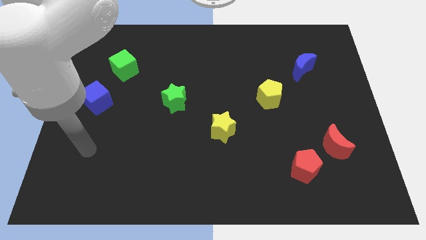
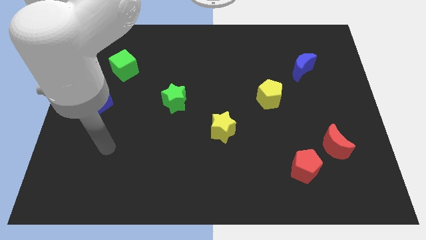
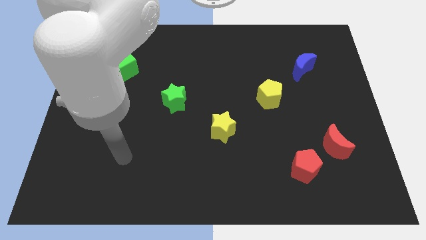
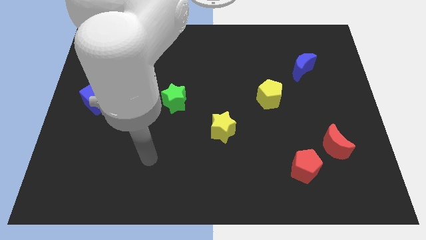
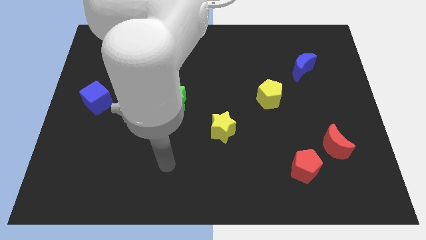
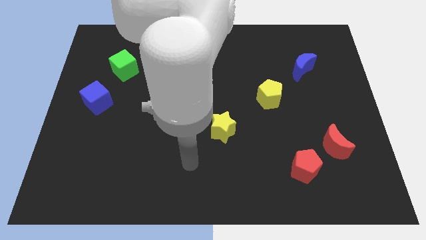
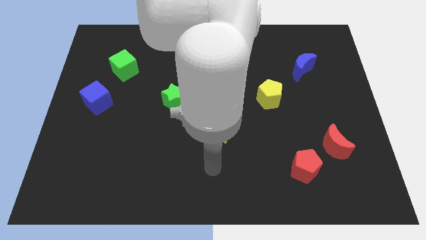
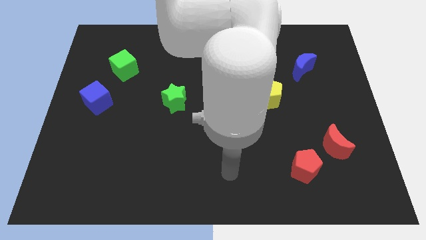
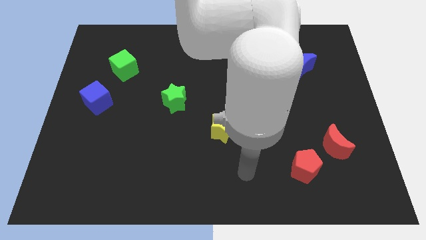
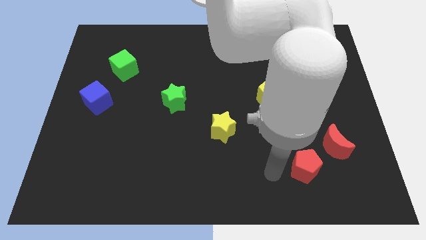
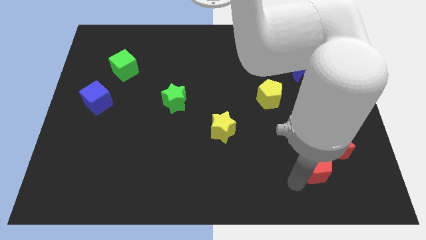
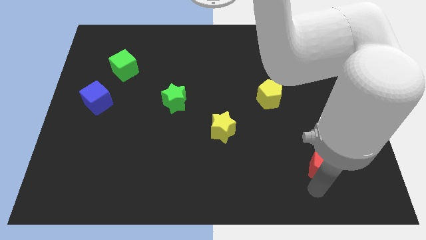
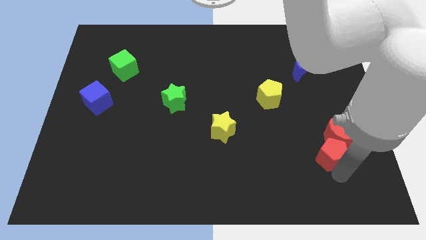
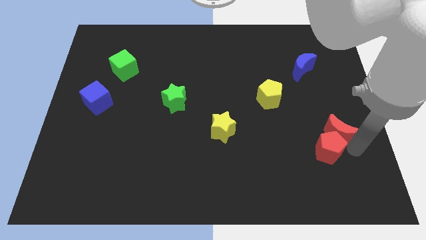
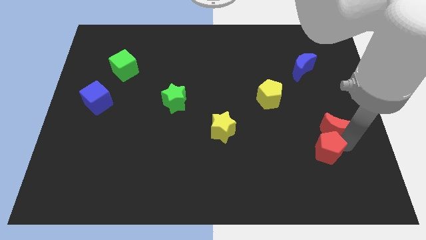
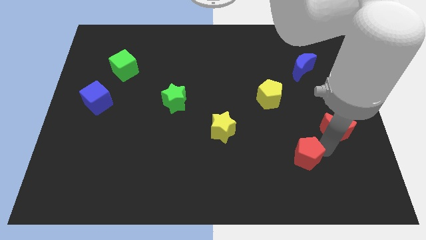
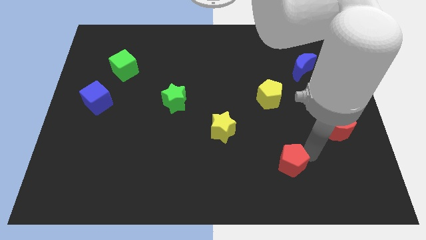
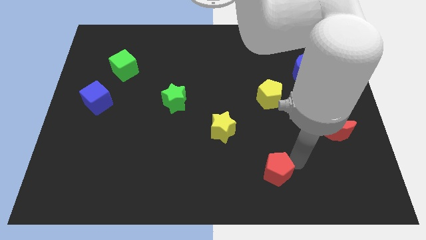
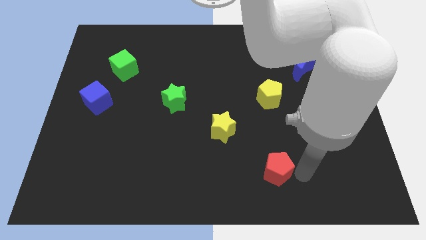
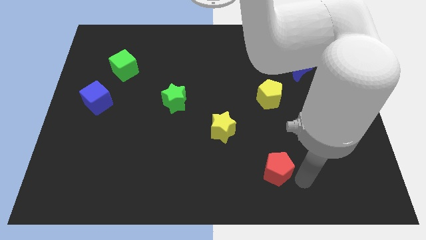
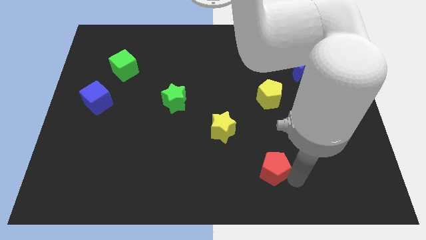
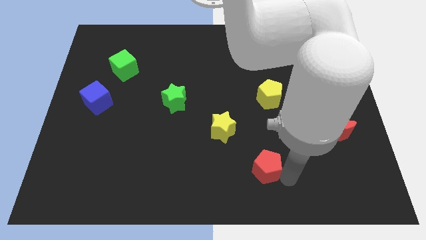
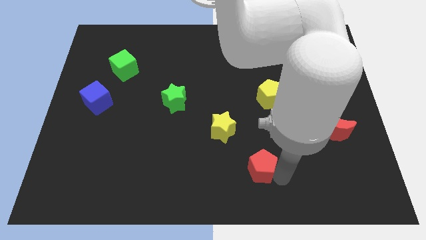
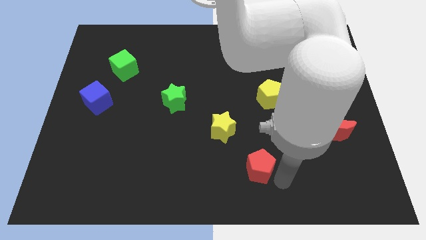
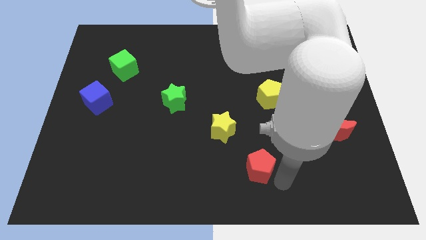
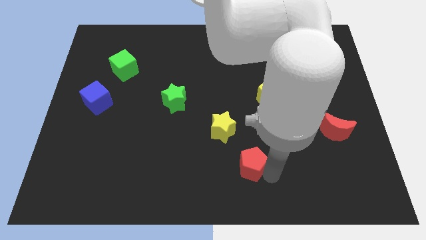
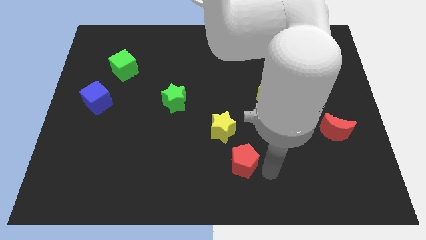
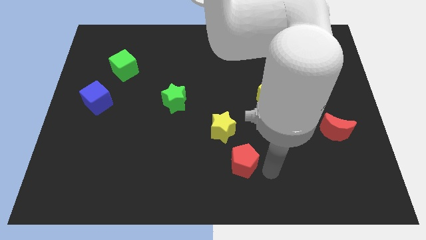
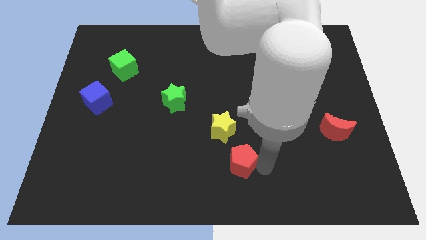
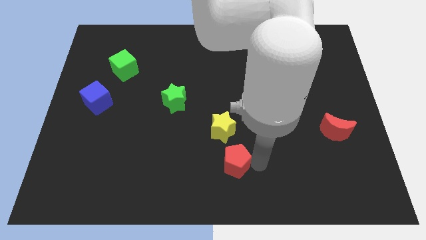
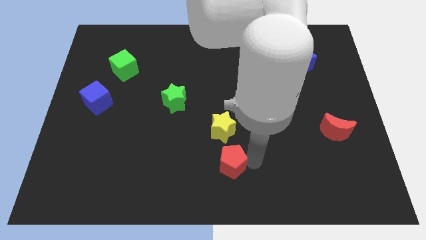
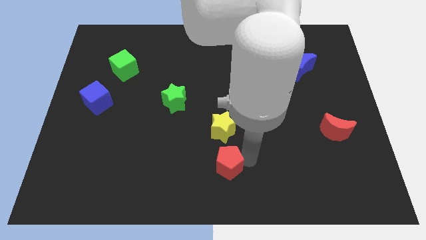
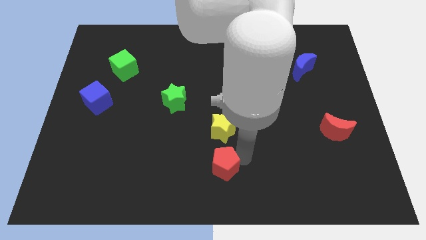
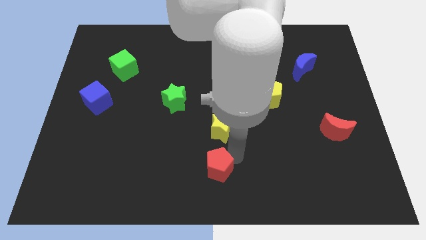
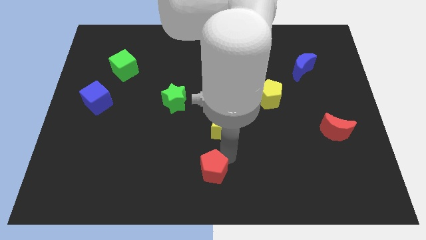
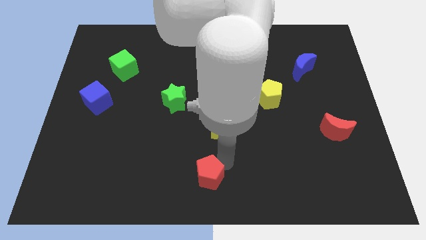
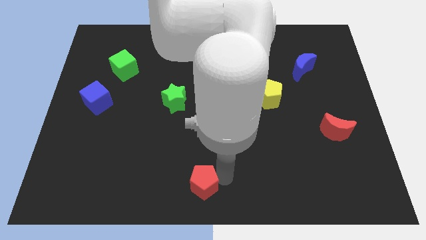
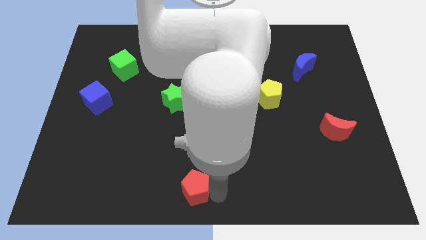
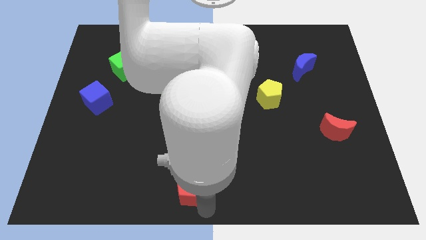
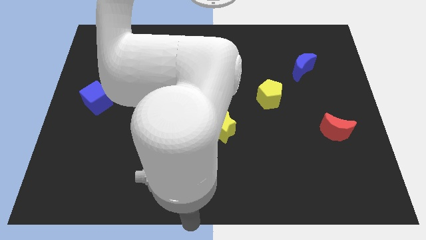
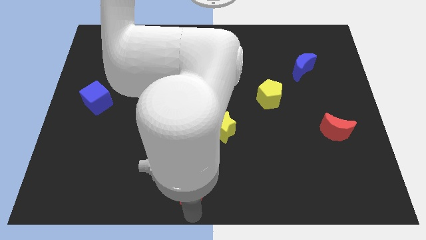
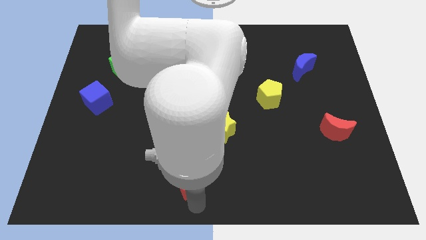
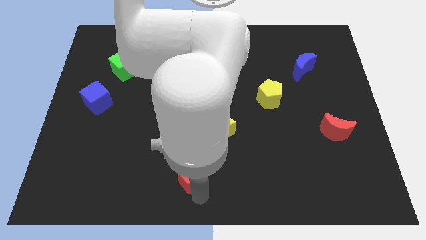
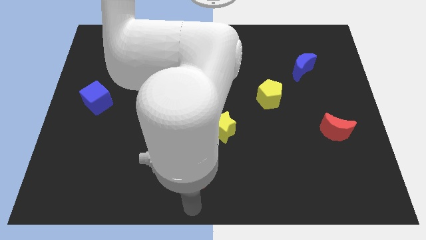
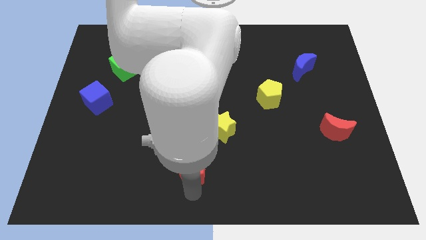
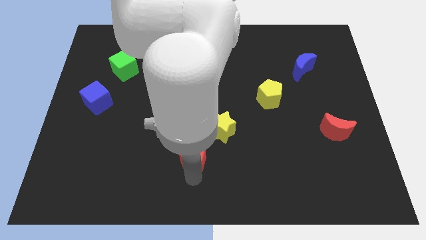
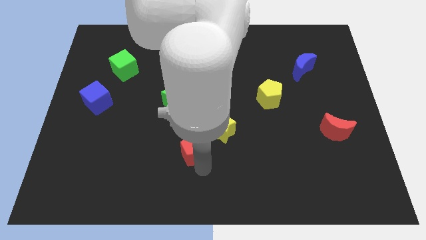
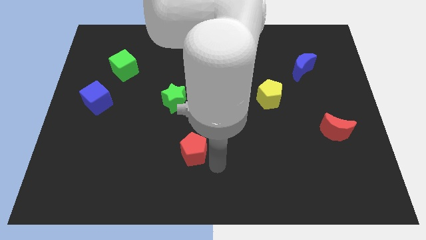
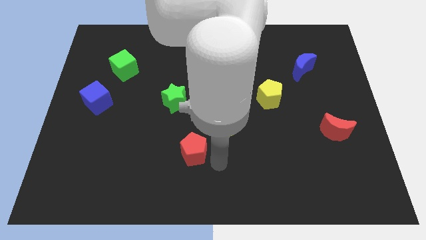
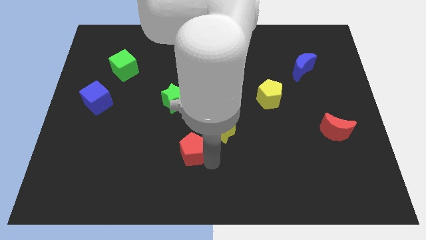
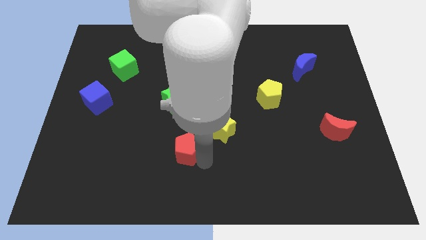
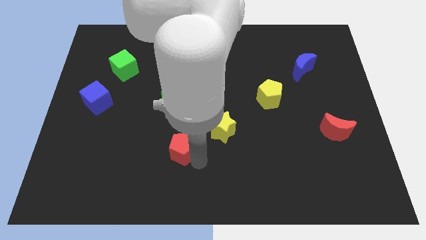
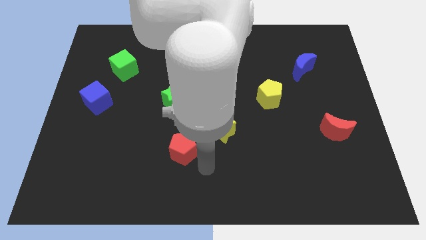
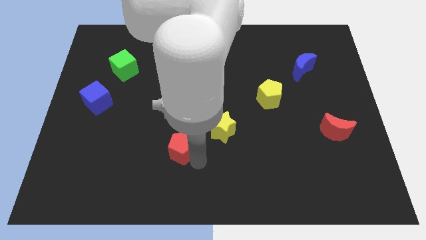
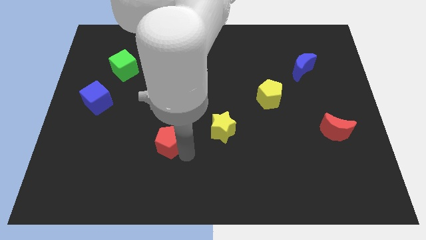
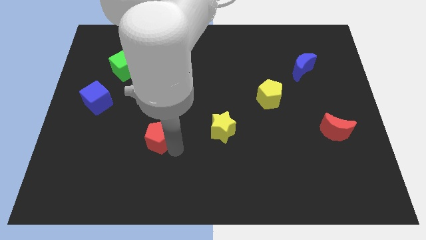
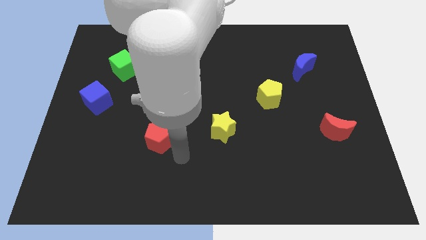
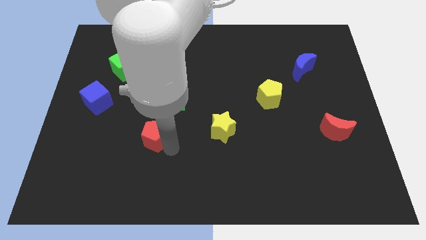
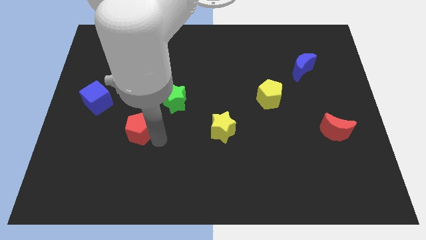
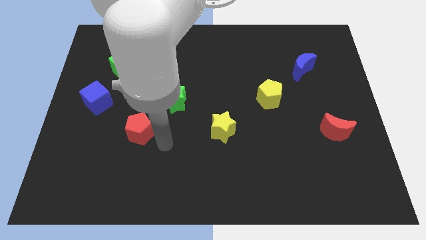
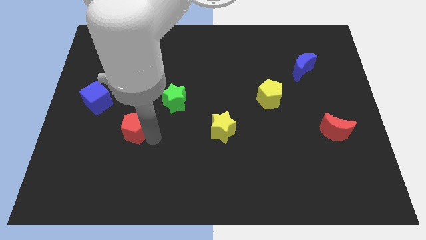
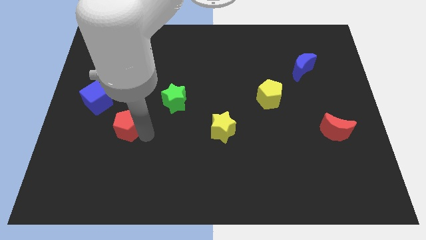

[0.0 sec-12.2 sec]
move the red pentagon diagonally down and to the right of the blue cube
